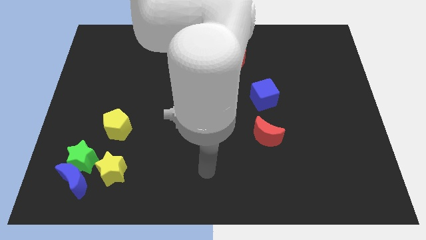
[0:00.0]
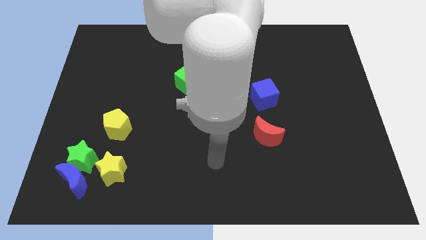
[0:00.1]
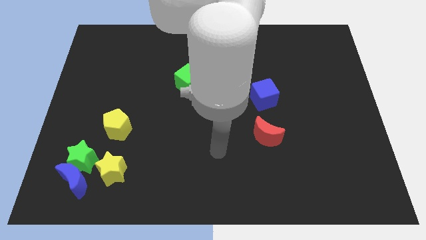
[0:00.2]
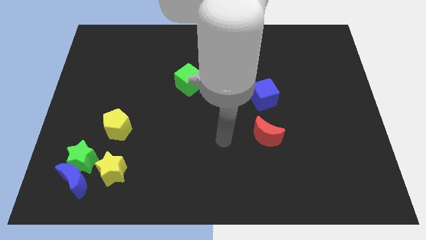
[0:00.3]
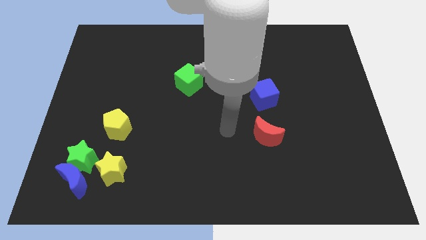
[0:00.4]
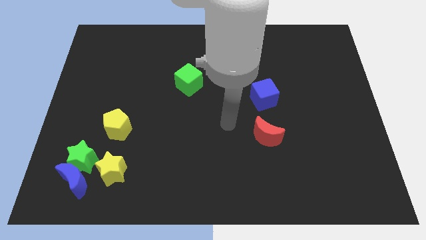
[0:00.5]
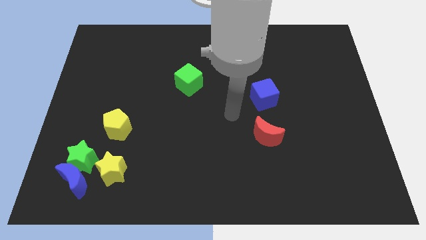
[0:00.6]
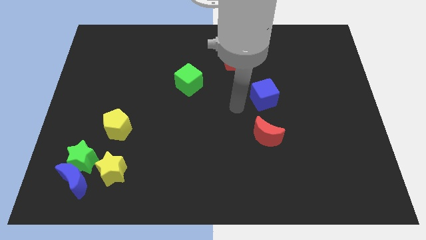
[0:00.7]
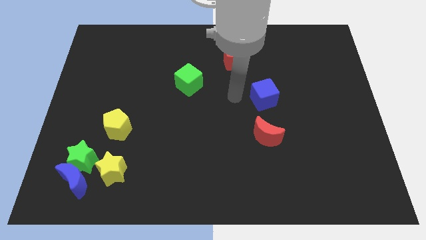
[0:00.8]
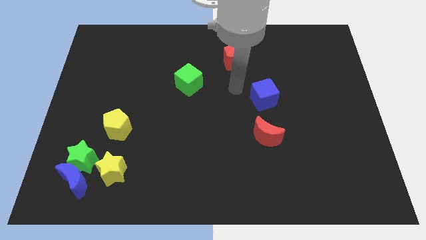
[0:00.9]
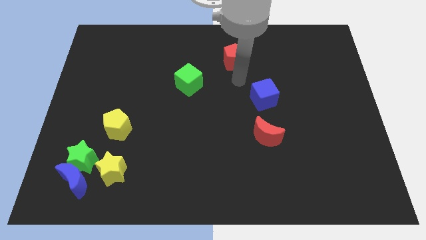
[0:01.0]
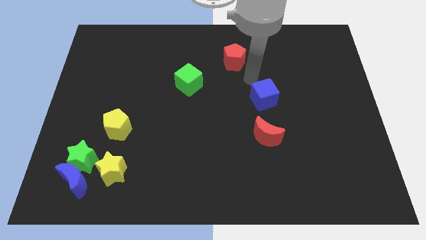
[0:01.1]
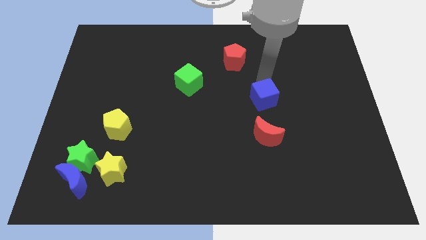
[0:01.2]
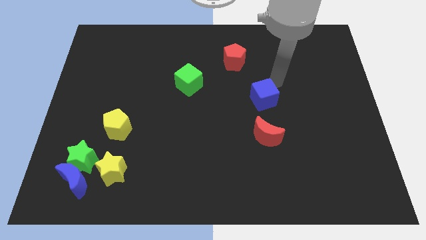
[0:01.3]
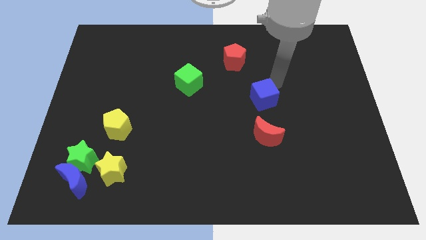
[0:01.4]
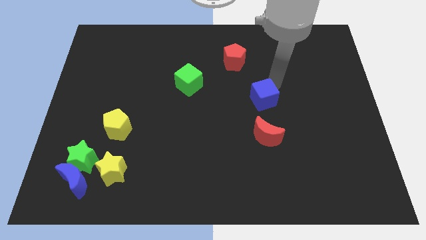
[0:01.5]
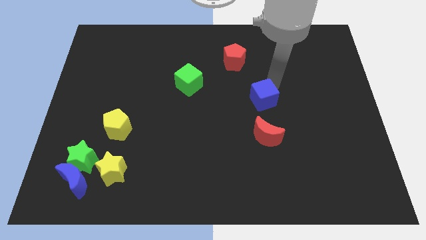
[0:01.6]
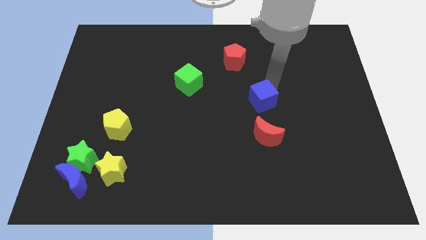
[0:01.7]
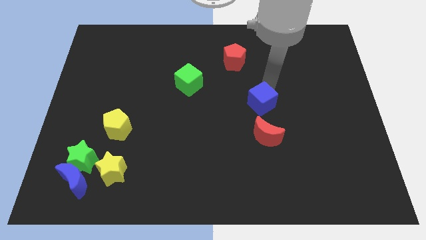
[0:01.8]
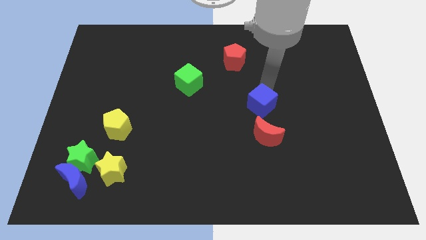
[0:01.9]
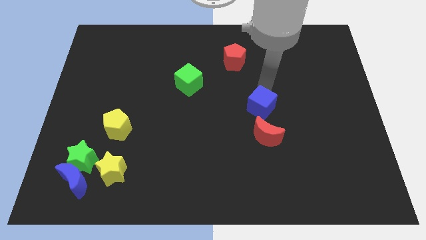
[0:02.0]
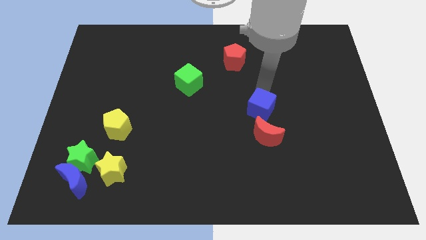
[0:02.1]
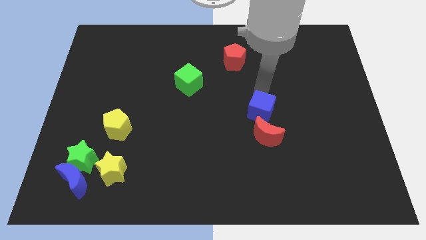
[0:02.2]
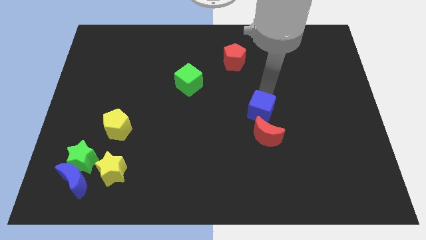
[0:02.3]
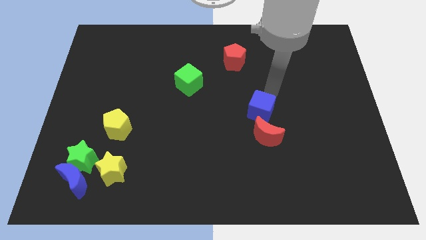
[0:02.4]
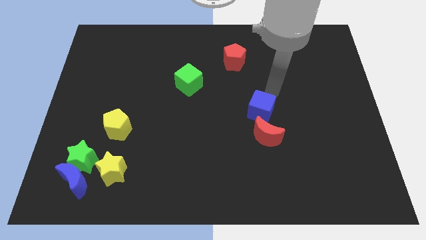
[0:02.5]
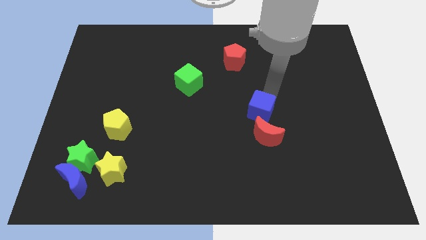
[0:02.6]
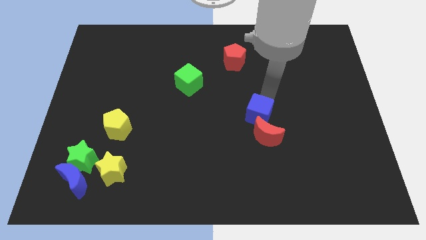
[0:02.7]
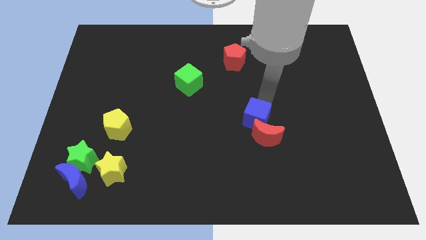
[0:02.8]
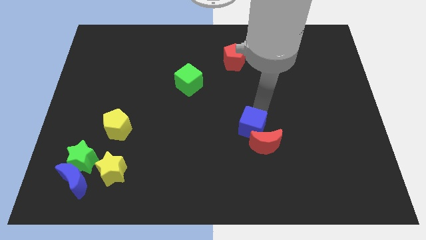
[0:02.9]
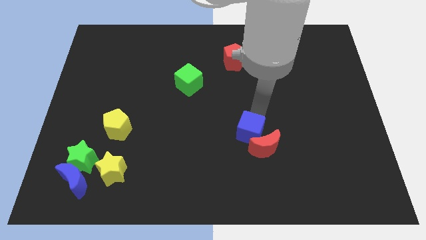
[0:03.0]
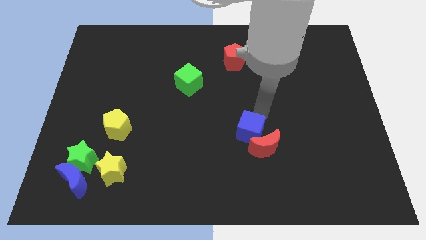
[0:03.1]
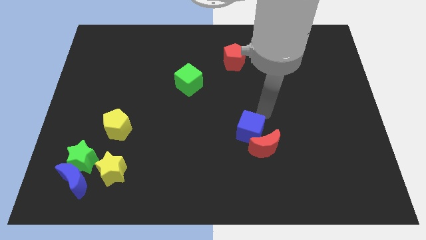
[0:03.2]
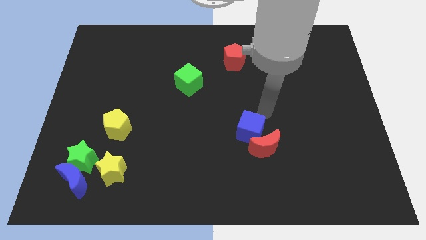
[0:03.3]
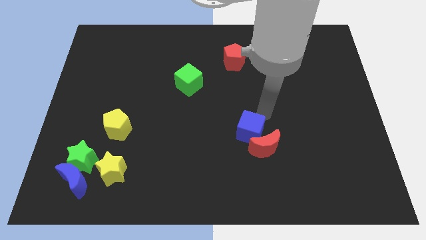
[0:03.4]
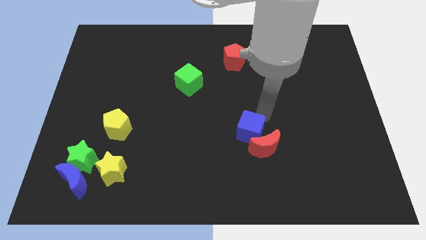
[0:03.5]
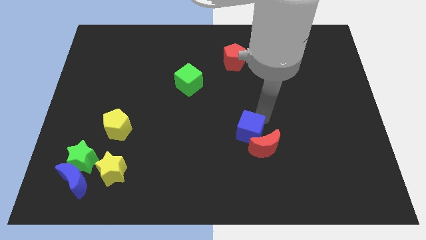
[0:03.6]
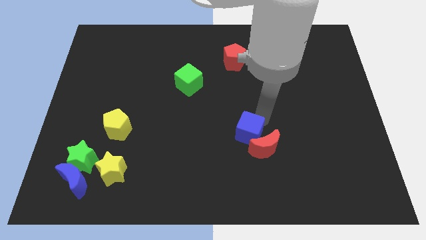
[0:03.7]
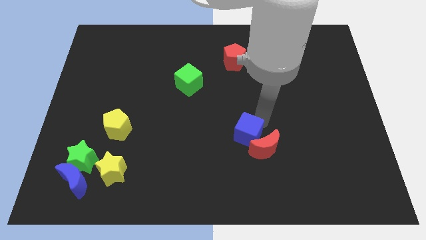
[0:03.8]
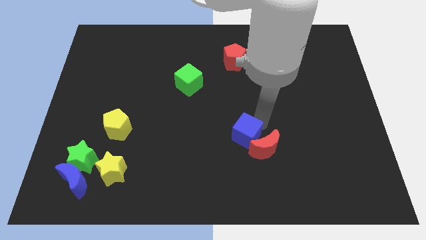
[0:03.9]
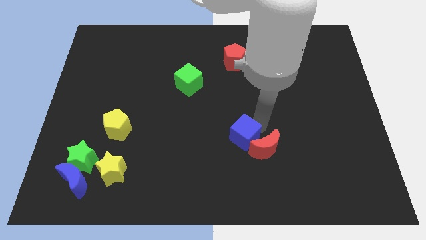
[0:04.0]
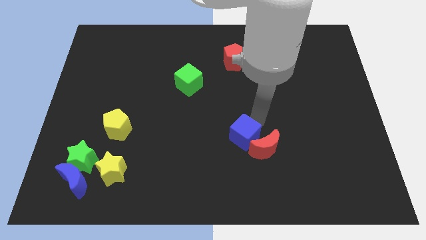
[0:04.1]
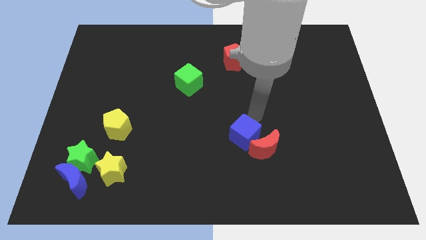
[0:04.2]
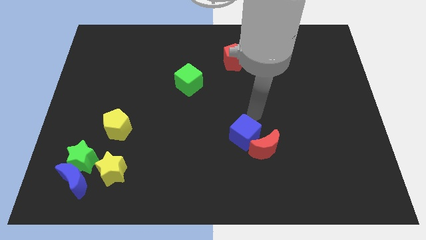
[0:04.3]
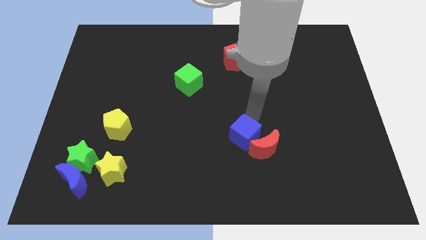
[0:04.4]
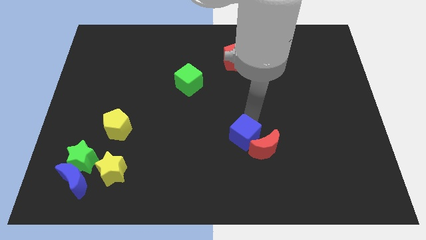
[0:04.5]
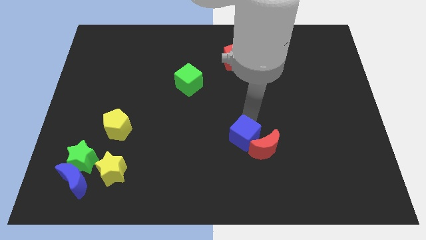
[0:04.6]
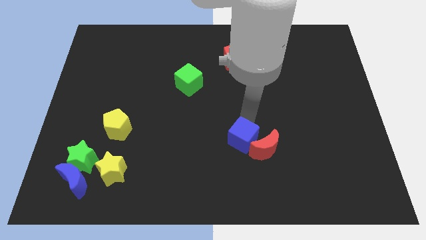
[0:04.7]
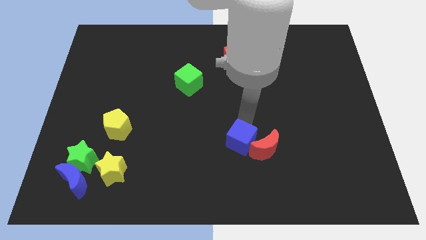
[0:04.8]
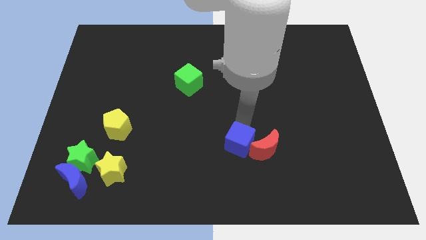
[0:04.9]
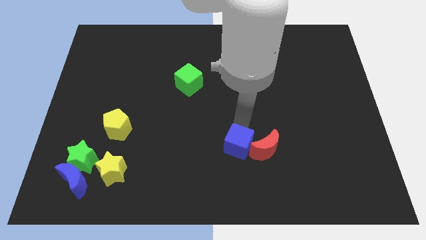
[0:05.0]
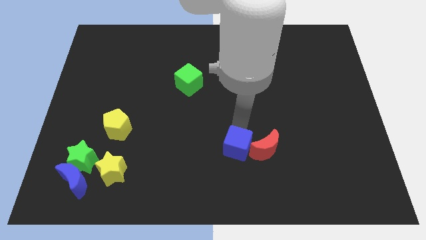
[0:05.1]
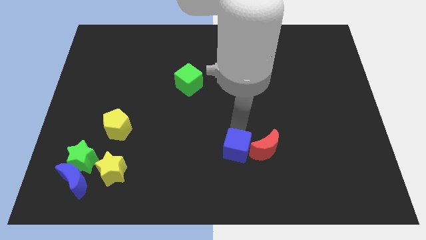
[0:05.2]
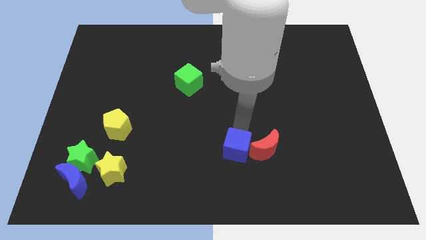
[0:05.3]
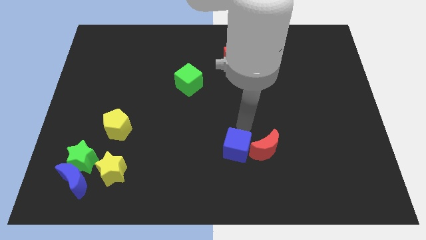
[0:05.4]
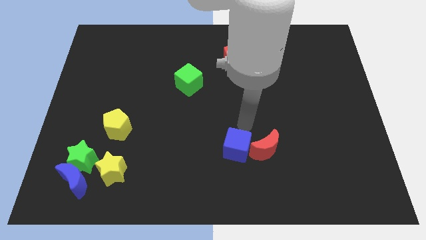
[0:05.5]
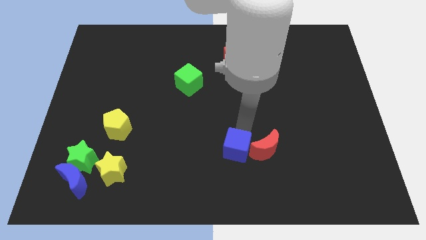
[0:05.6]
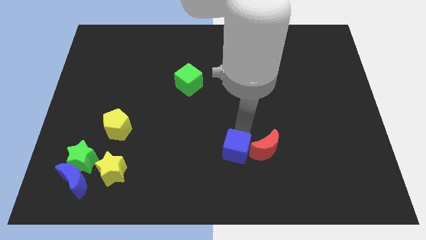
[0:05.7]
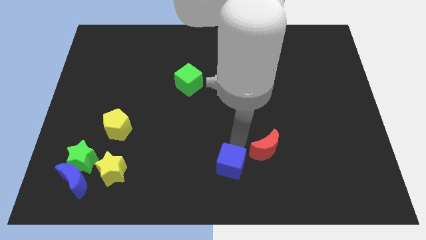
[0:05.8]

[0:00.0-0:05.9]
move the blue cube to the bottom side
